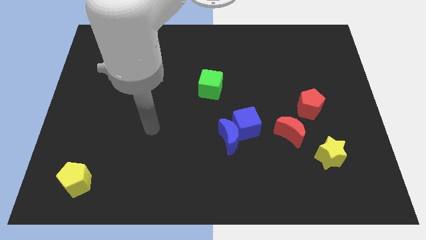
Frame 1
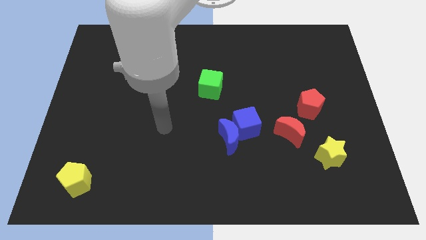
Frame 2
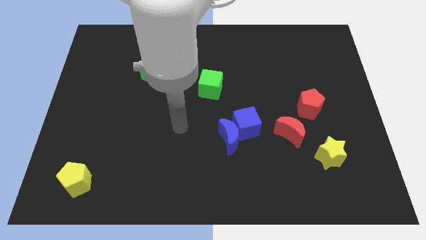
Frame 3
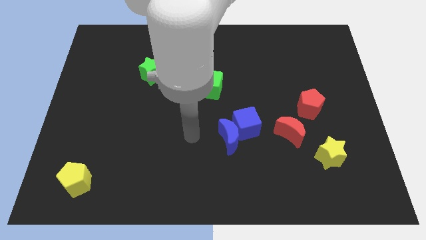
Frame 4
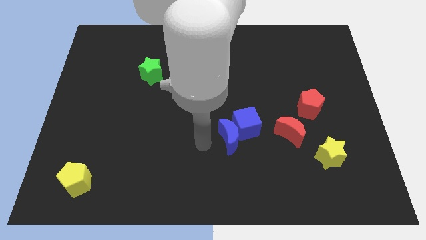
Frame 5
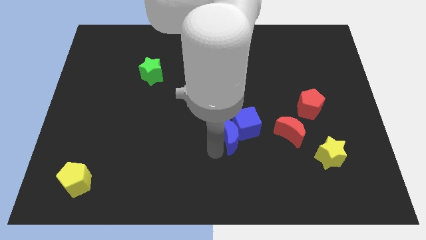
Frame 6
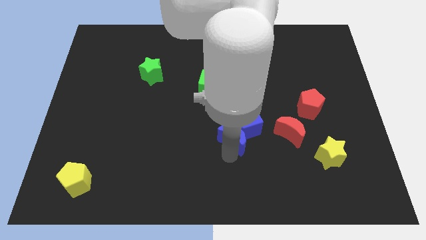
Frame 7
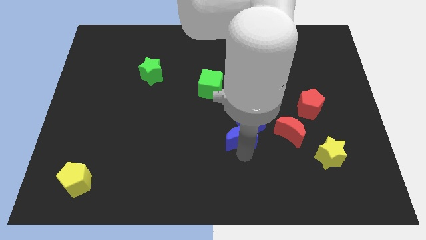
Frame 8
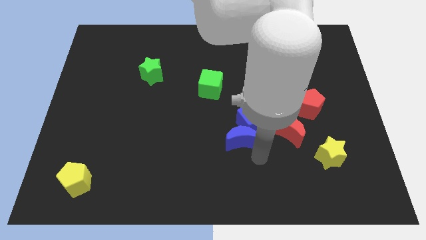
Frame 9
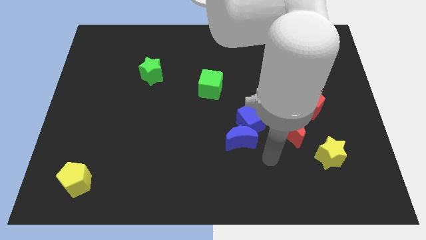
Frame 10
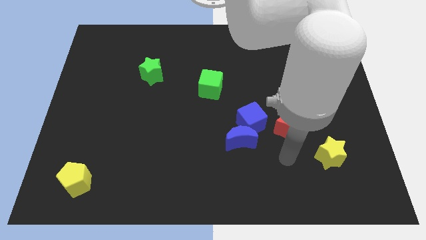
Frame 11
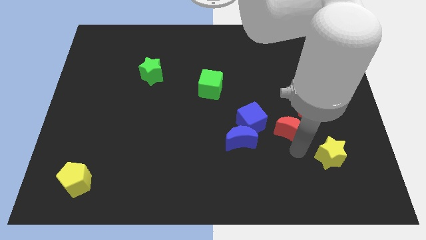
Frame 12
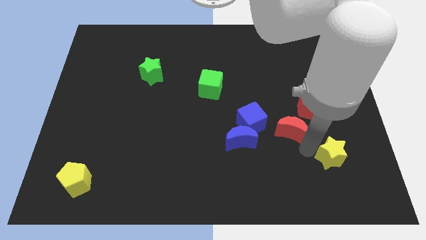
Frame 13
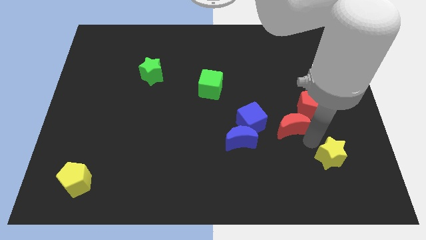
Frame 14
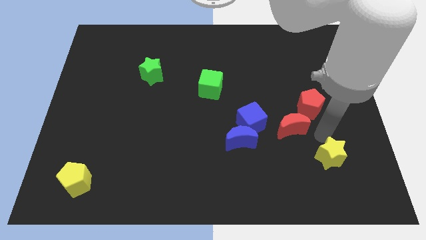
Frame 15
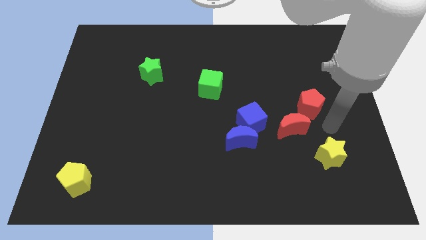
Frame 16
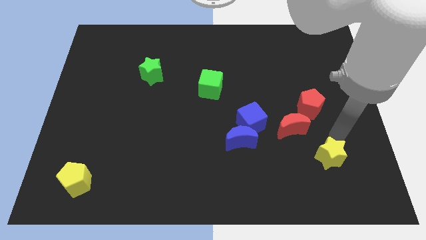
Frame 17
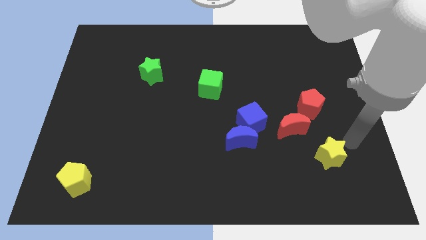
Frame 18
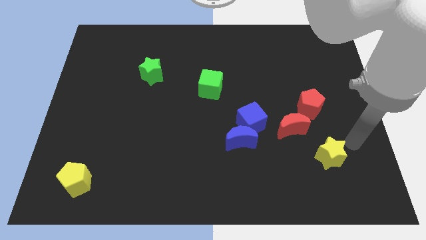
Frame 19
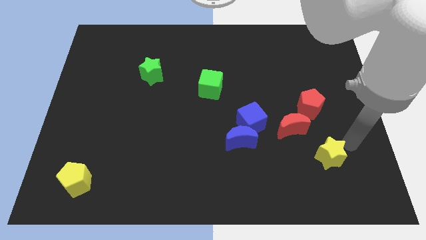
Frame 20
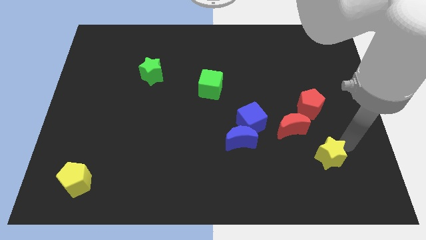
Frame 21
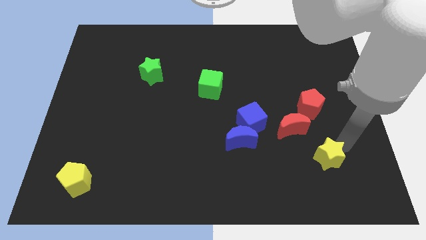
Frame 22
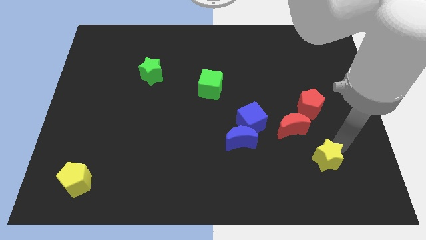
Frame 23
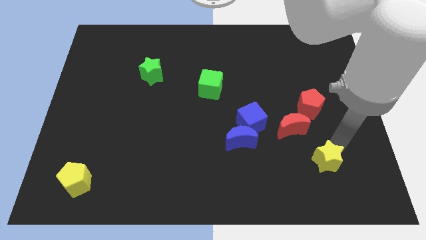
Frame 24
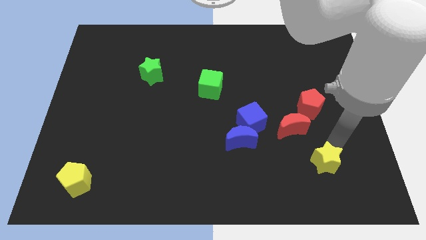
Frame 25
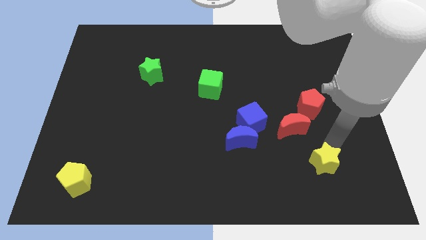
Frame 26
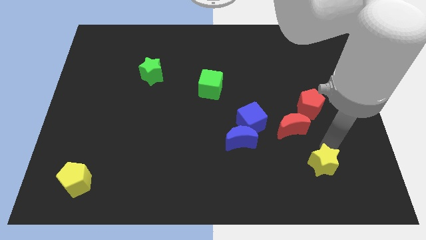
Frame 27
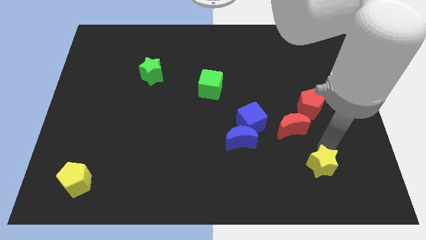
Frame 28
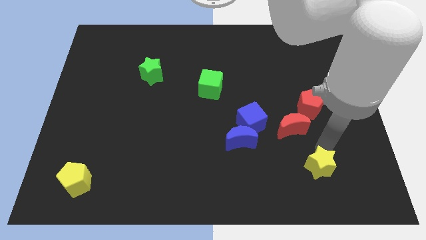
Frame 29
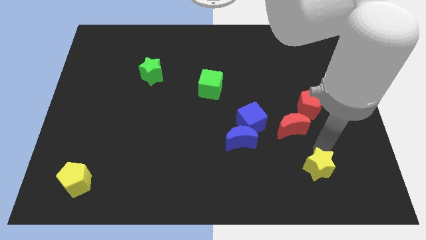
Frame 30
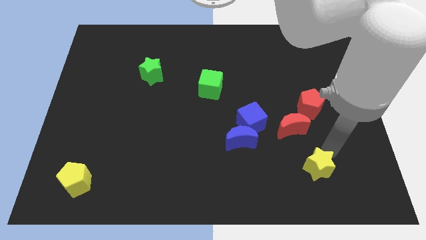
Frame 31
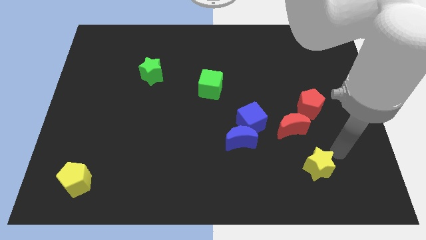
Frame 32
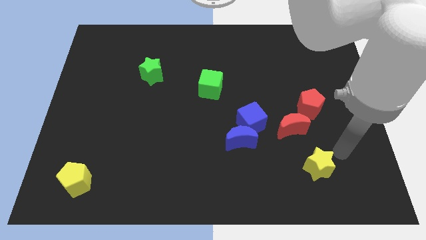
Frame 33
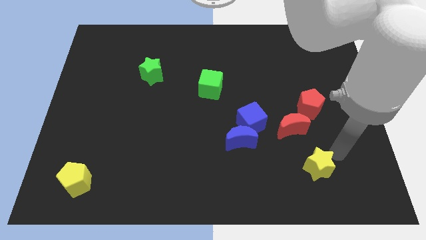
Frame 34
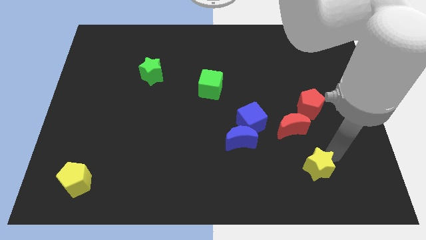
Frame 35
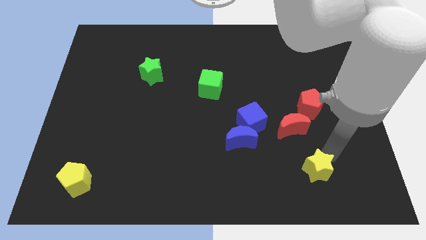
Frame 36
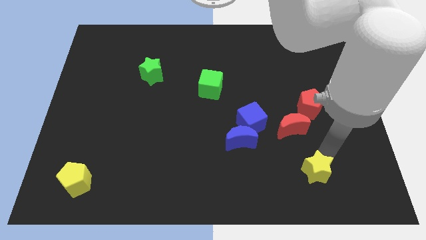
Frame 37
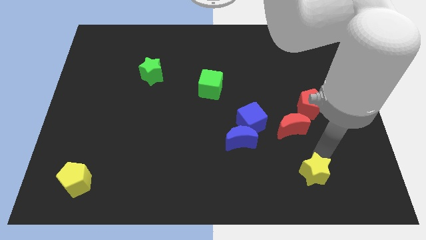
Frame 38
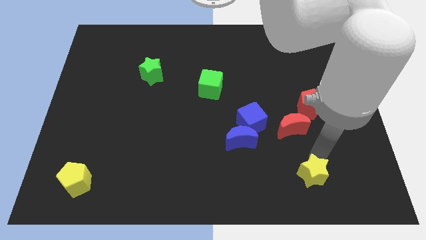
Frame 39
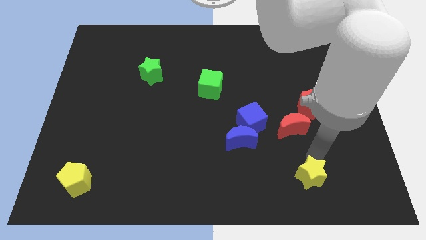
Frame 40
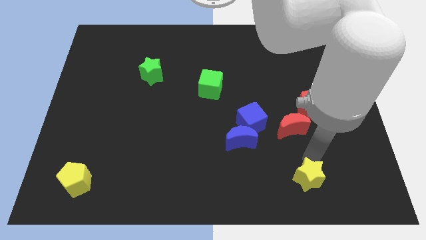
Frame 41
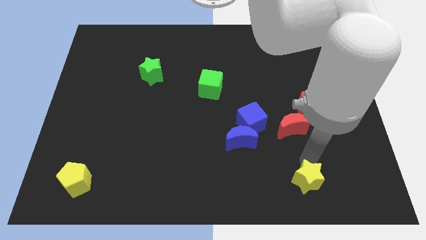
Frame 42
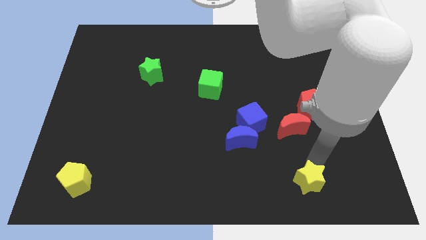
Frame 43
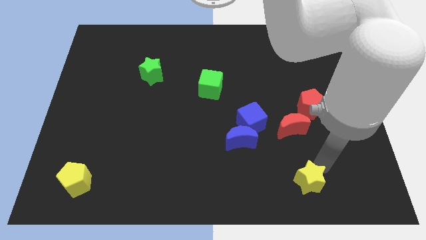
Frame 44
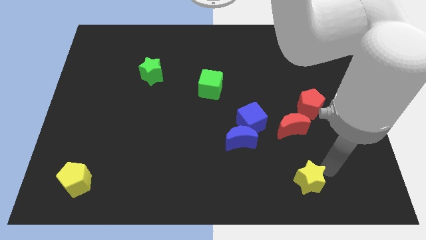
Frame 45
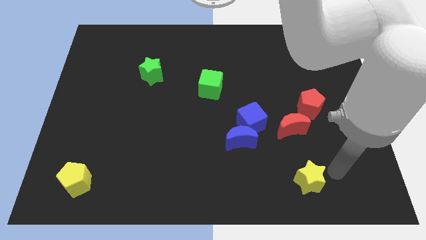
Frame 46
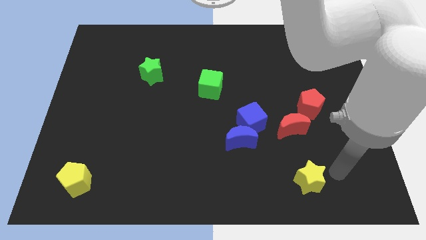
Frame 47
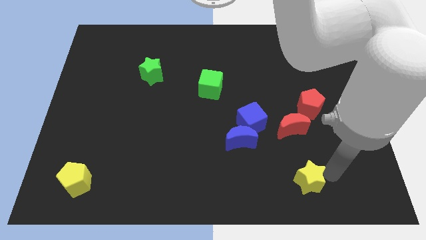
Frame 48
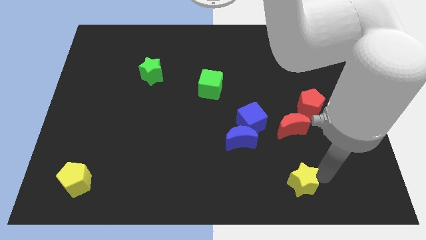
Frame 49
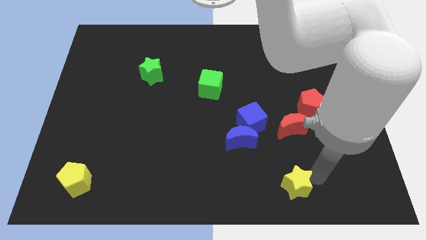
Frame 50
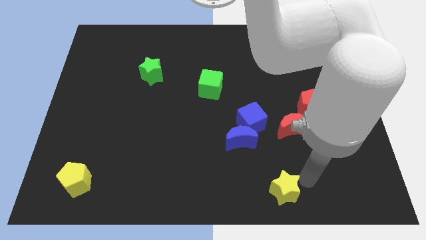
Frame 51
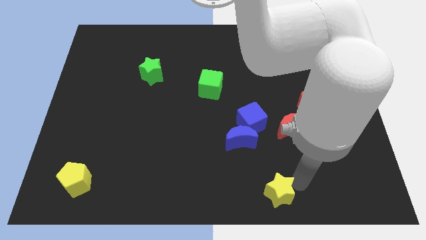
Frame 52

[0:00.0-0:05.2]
slide the yellow star to the bottom side

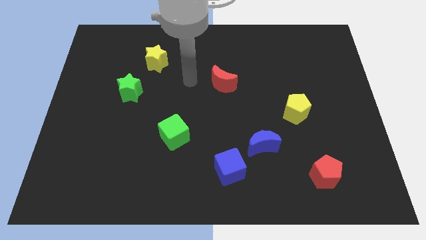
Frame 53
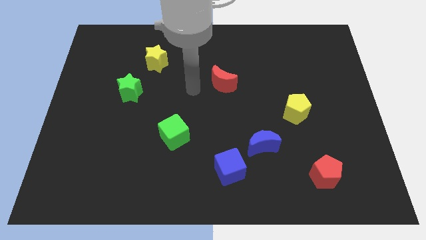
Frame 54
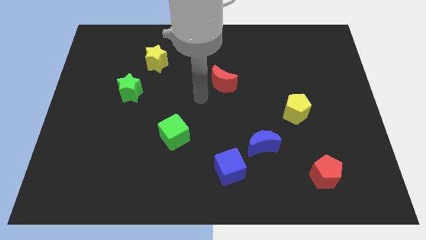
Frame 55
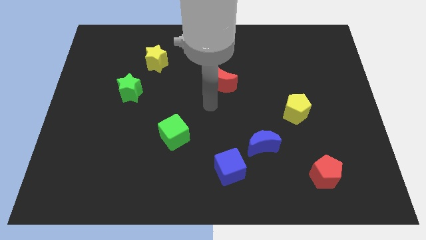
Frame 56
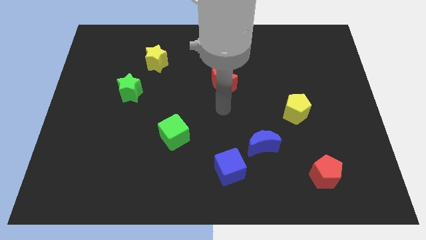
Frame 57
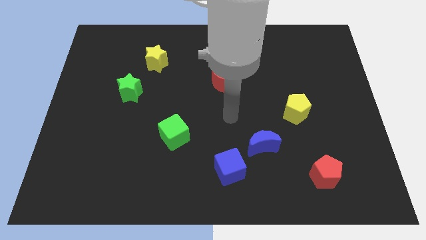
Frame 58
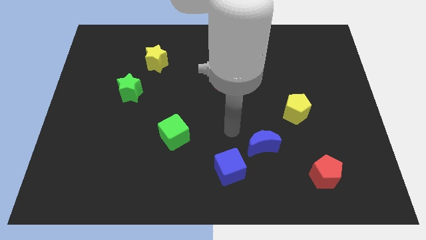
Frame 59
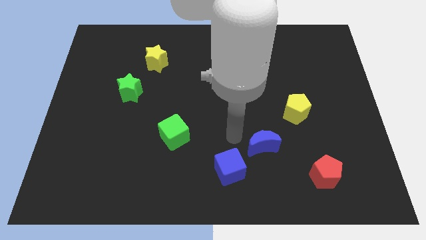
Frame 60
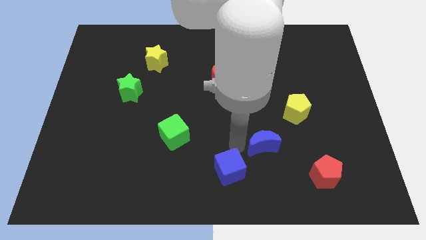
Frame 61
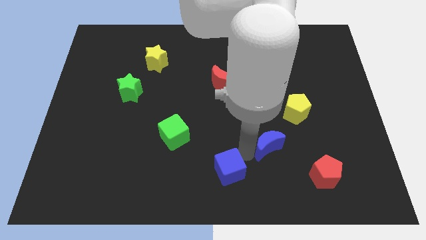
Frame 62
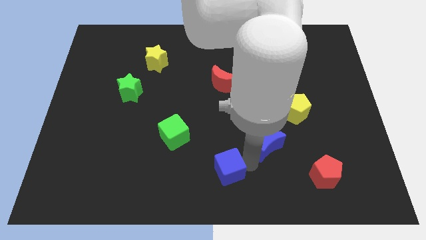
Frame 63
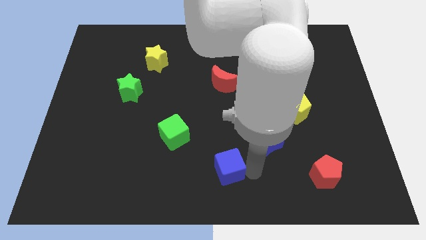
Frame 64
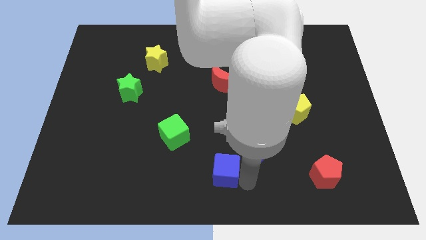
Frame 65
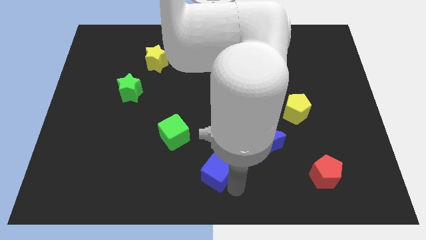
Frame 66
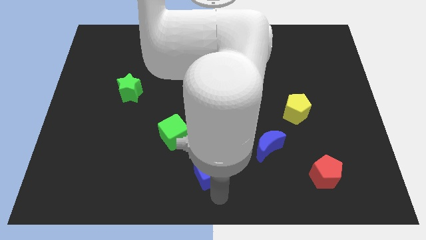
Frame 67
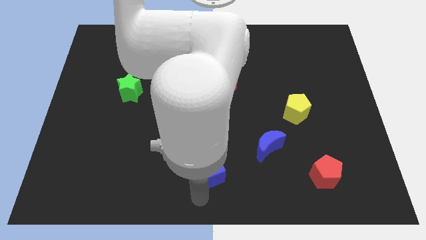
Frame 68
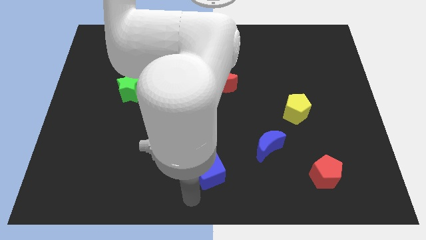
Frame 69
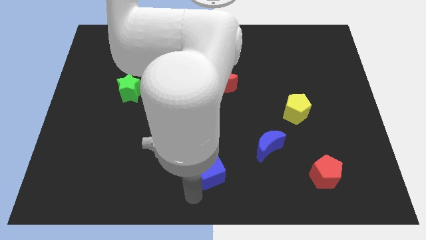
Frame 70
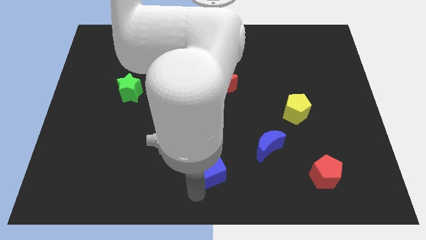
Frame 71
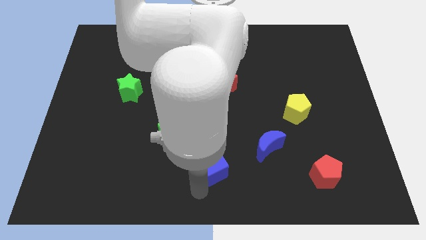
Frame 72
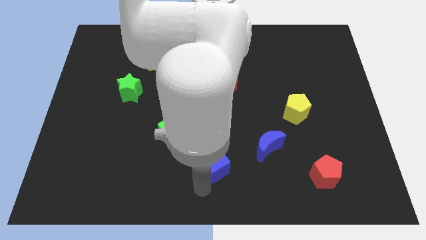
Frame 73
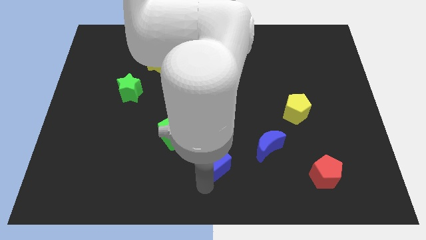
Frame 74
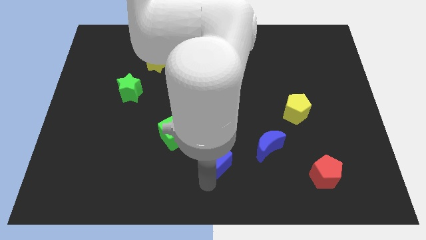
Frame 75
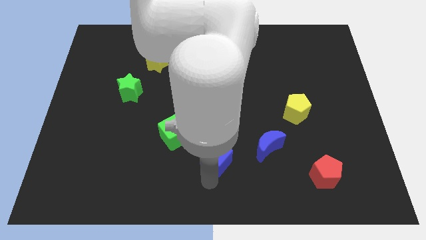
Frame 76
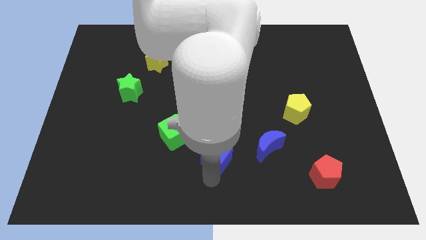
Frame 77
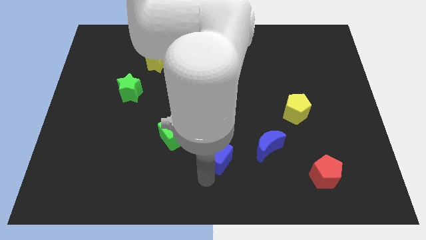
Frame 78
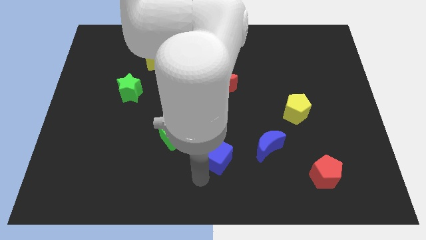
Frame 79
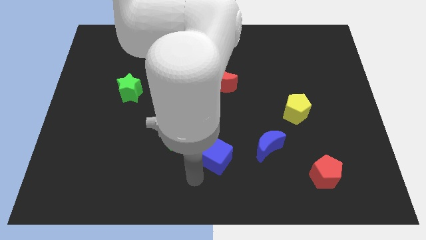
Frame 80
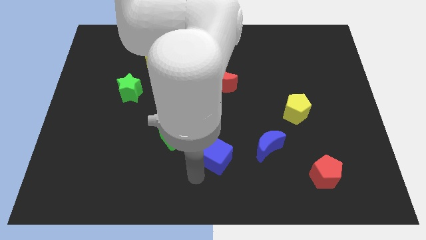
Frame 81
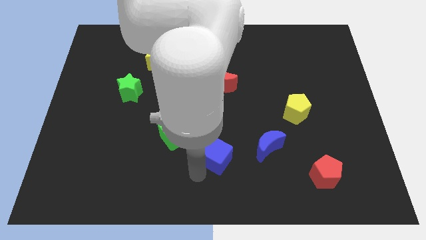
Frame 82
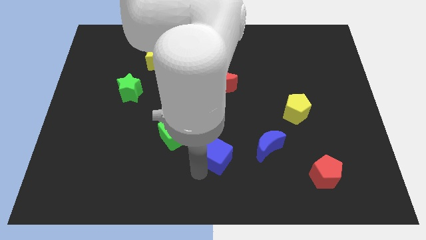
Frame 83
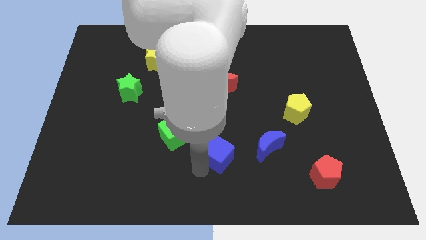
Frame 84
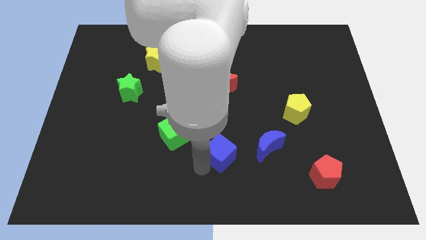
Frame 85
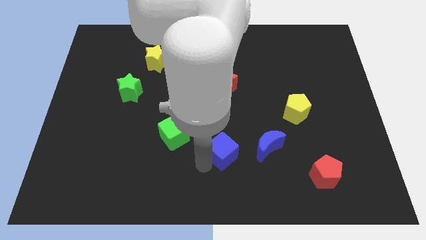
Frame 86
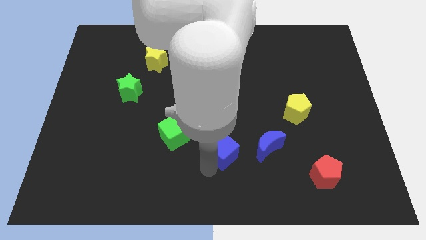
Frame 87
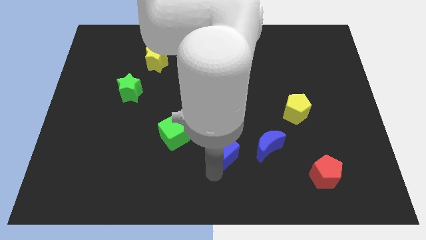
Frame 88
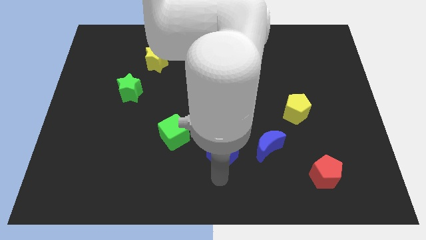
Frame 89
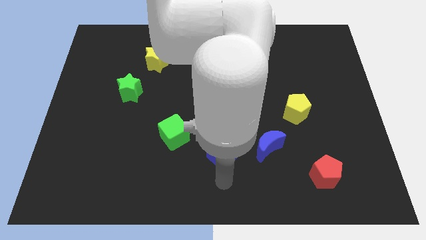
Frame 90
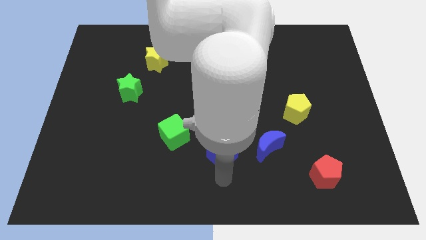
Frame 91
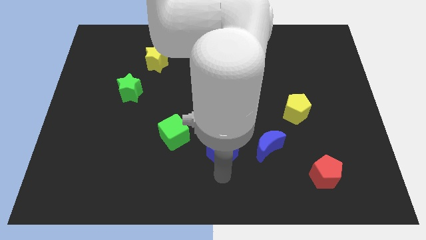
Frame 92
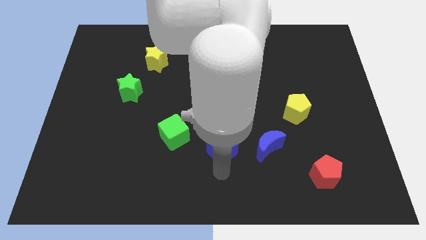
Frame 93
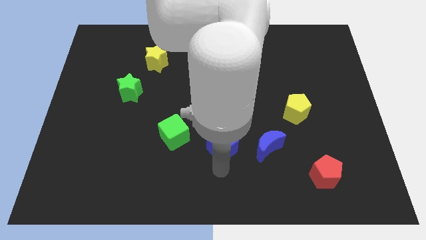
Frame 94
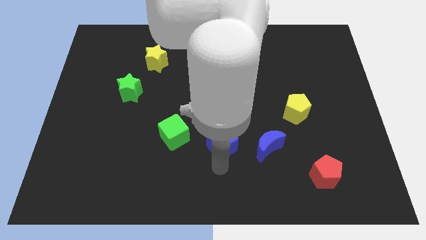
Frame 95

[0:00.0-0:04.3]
move the blue cube to the center of the board
